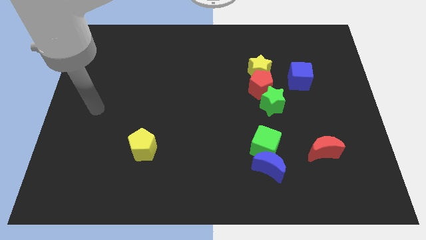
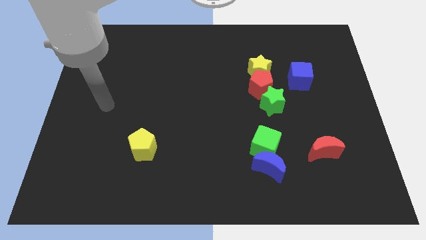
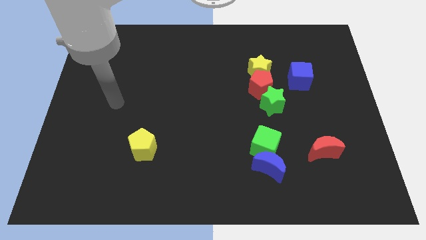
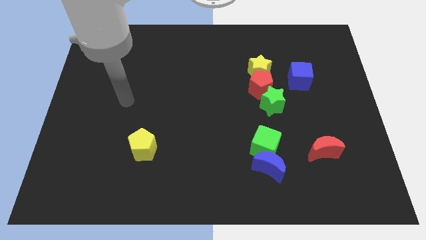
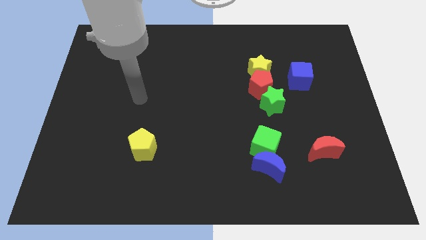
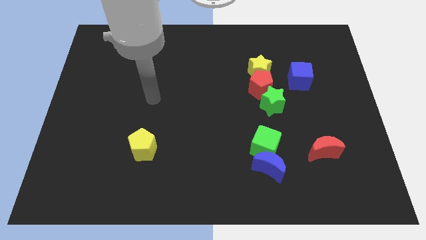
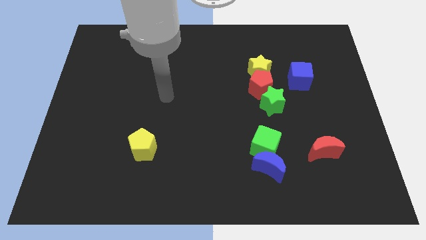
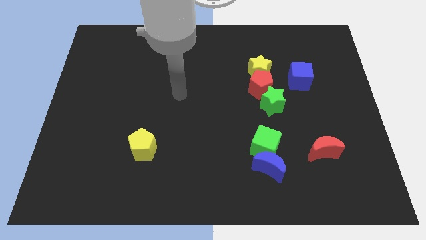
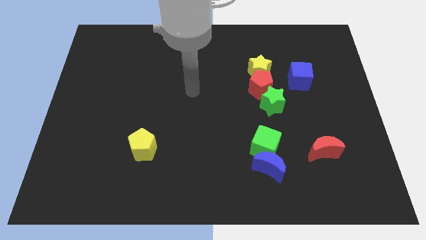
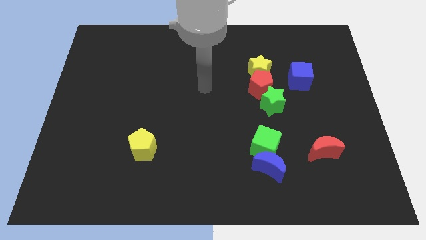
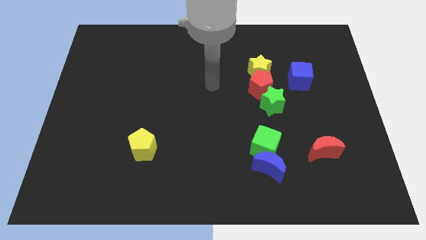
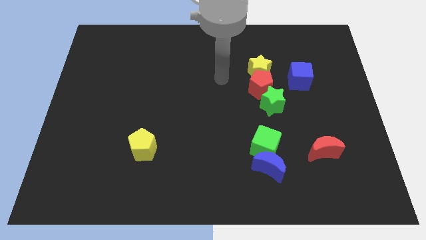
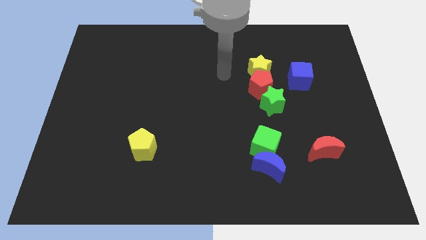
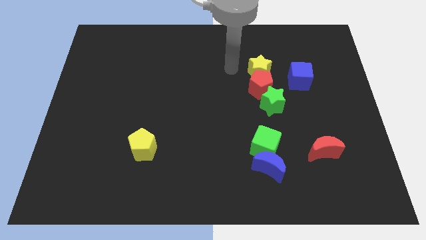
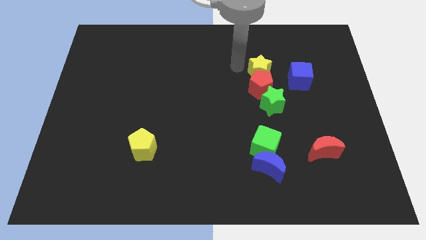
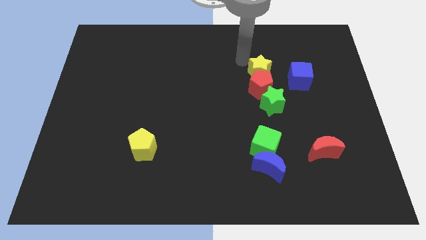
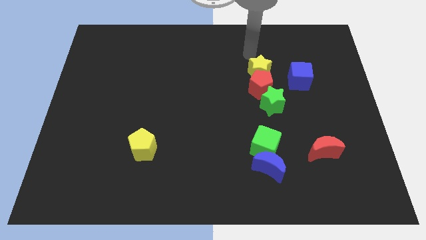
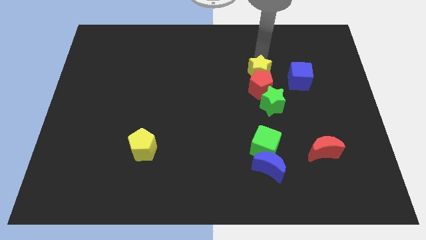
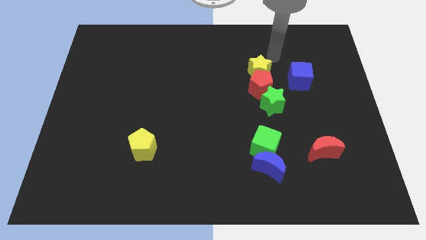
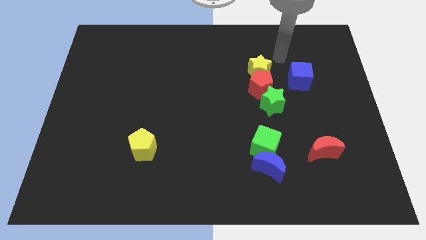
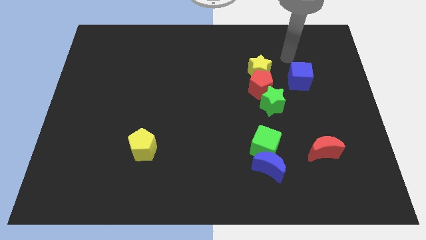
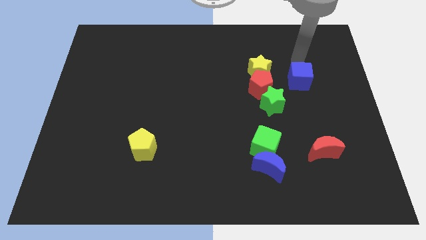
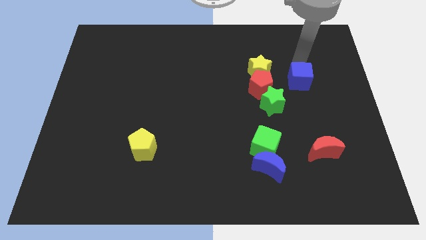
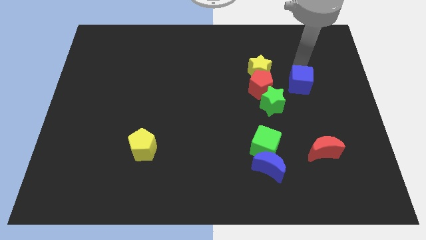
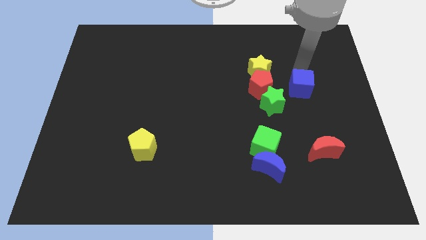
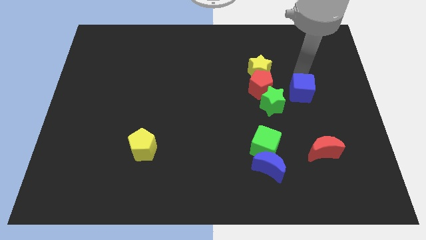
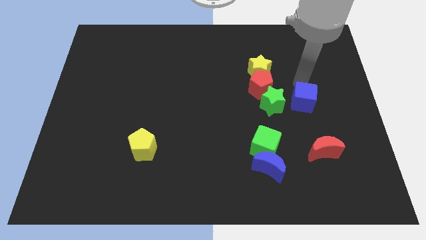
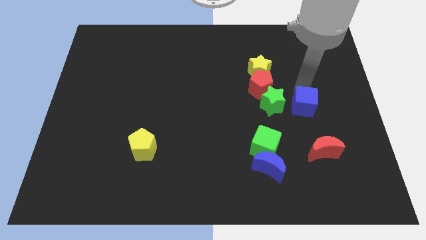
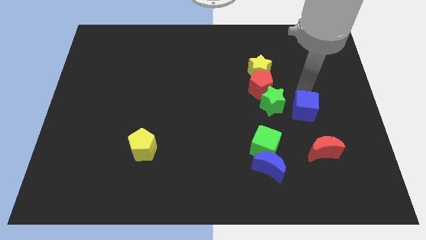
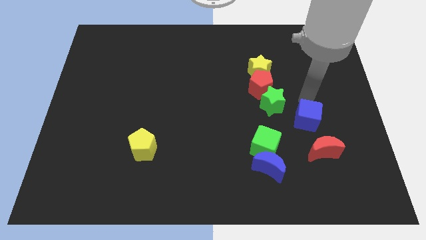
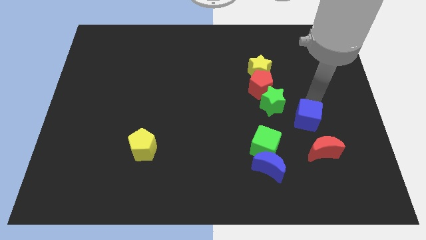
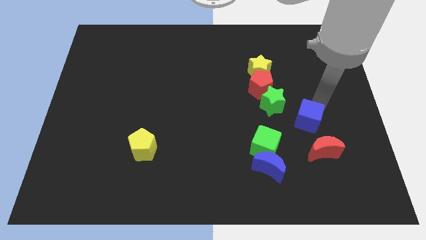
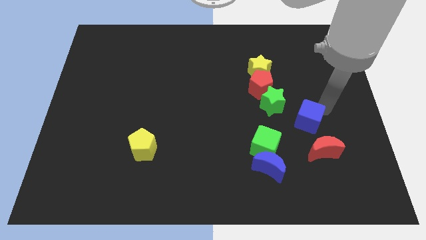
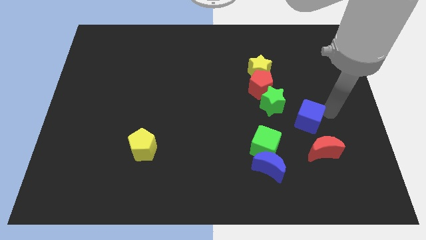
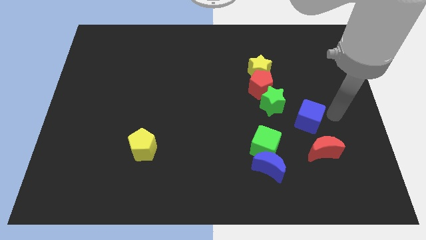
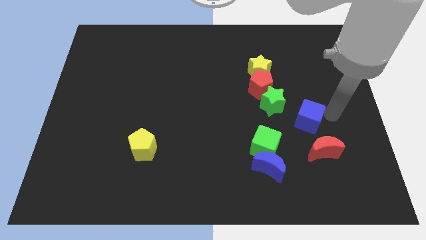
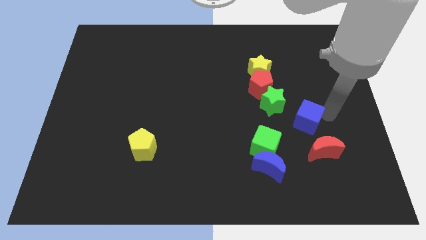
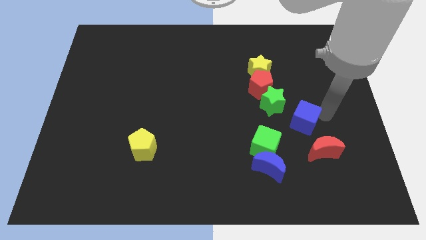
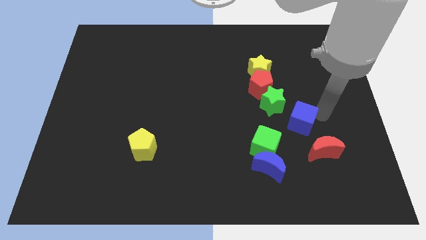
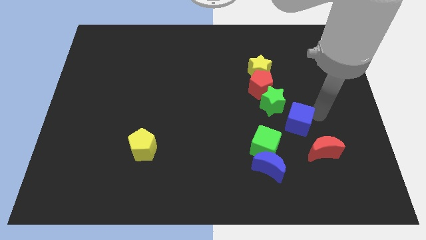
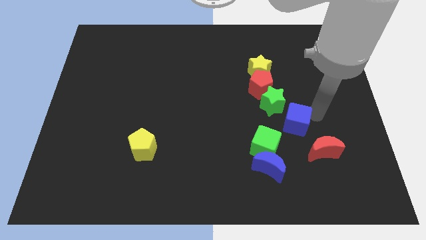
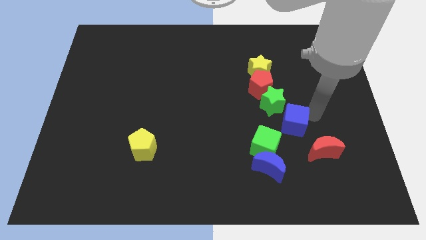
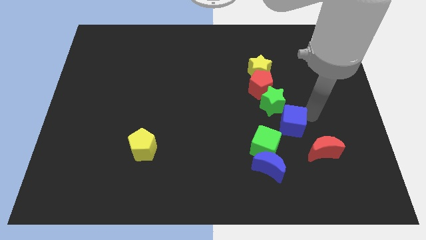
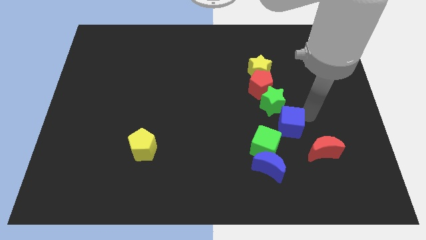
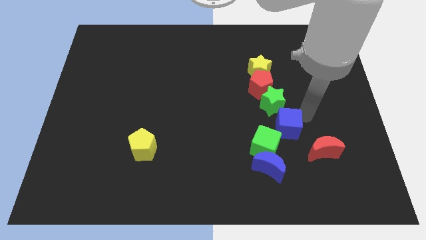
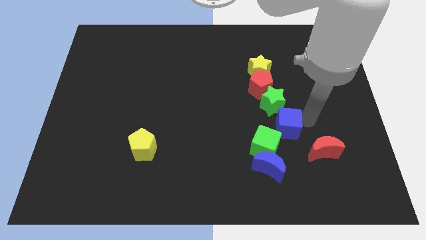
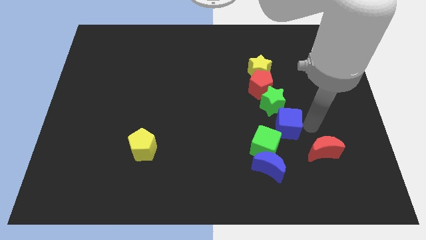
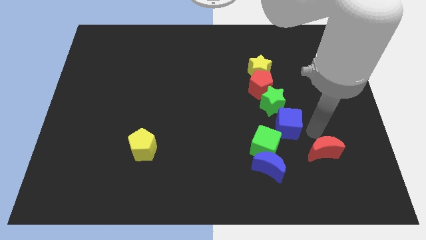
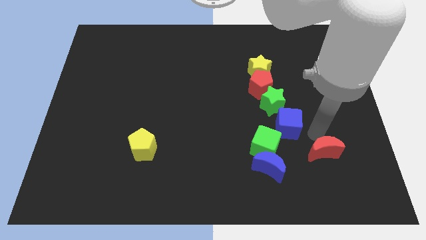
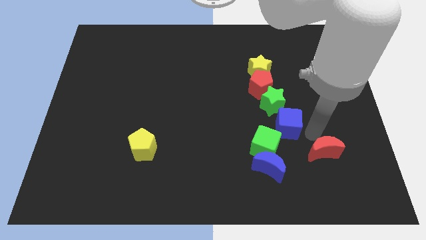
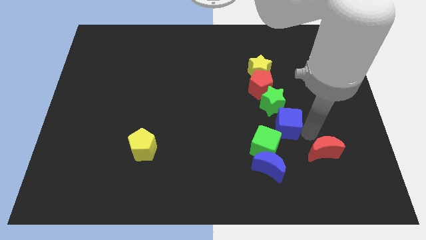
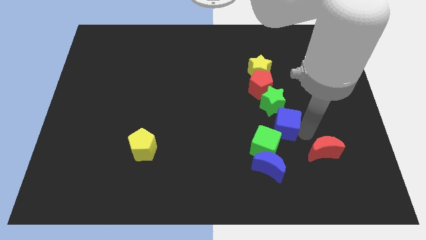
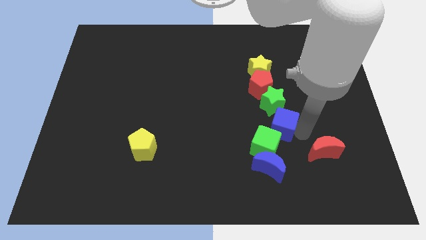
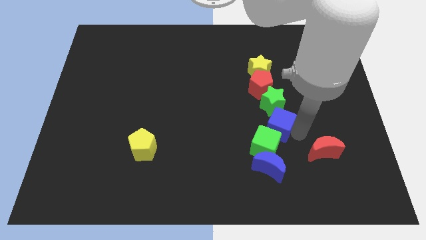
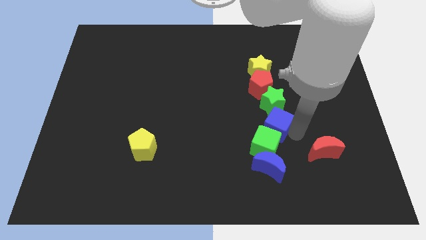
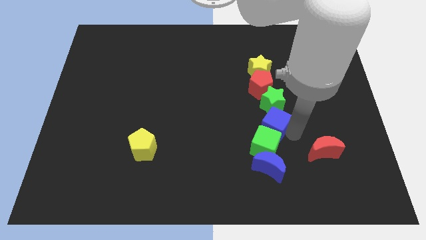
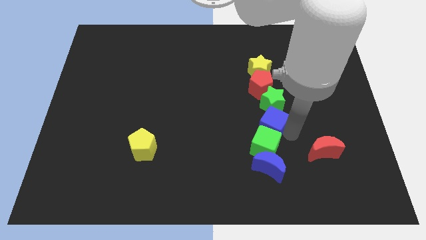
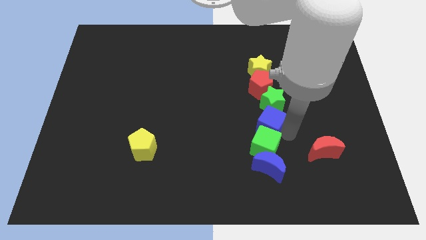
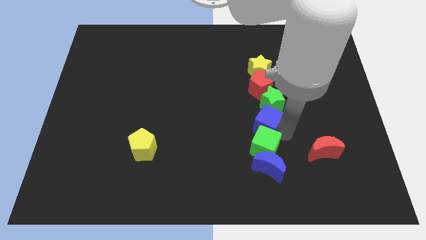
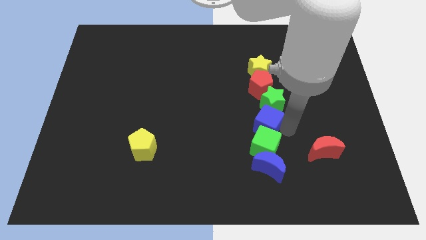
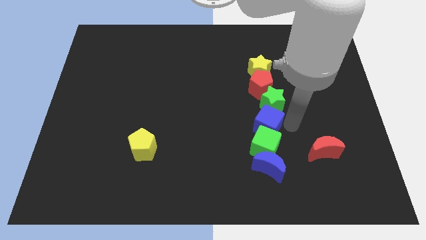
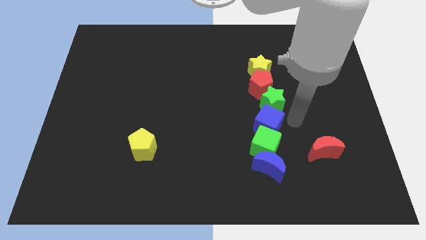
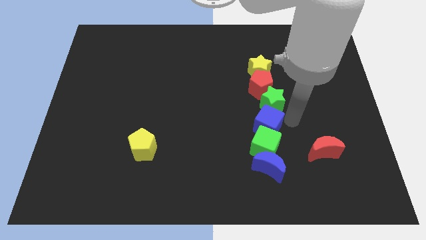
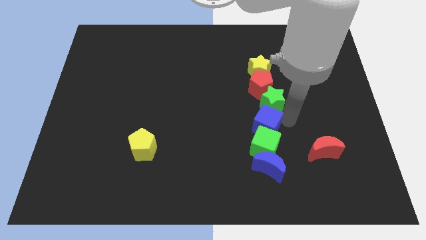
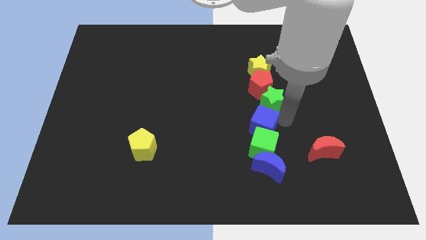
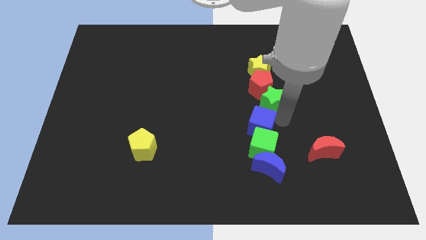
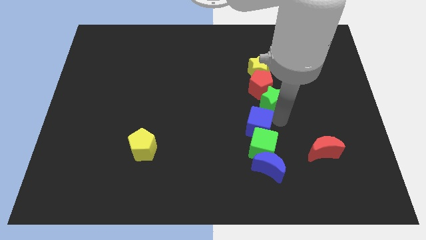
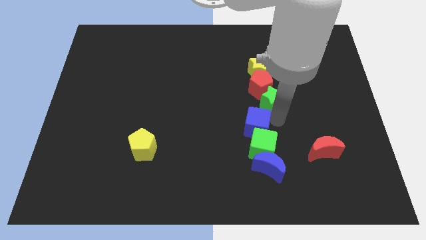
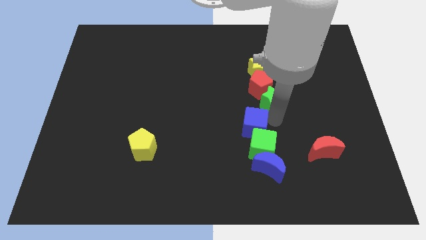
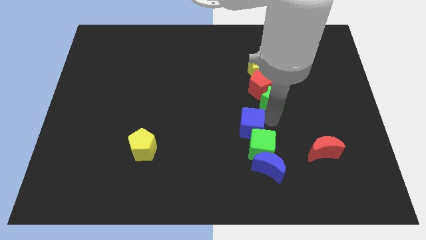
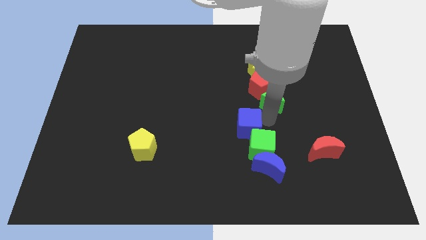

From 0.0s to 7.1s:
slide the blue cube diagonally down and left

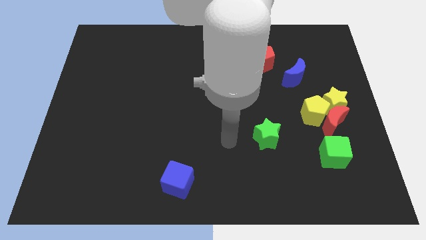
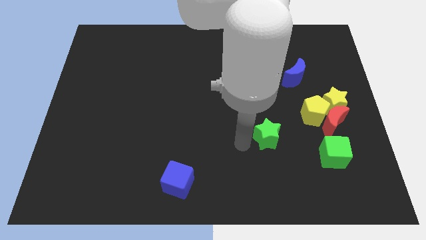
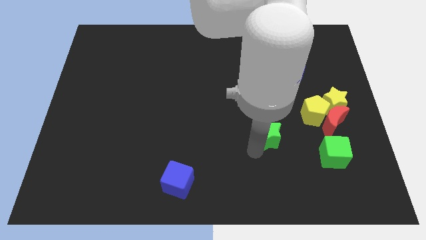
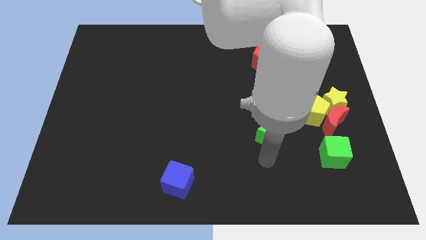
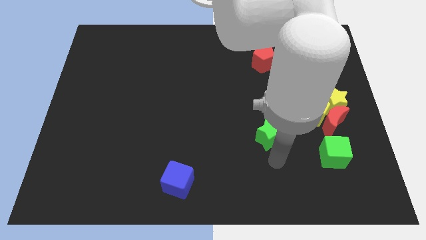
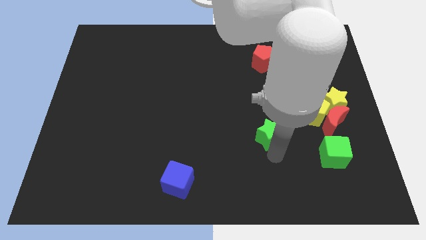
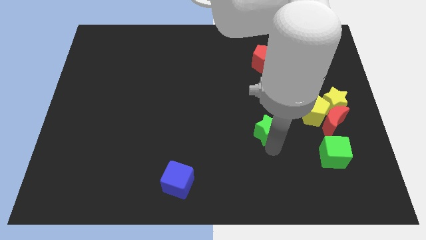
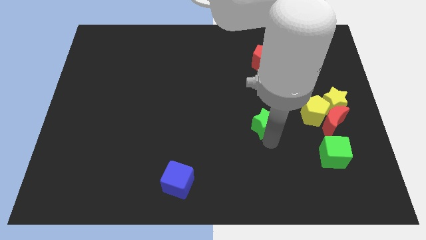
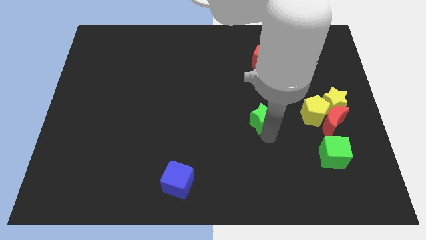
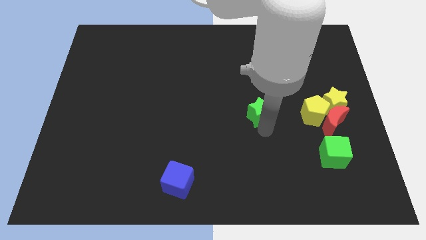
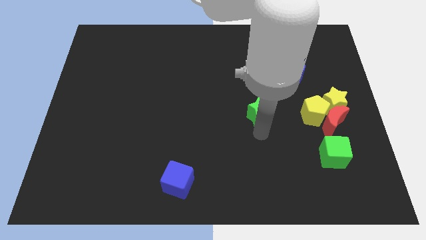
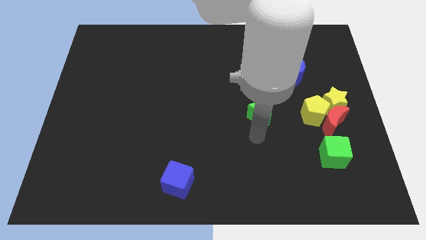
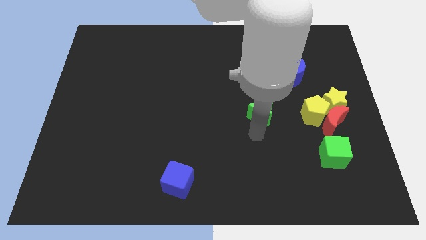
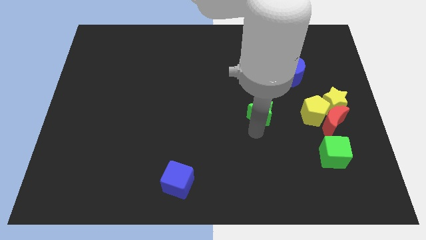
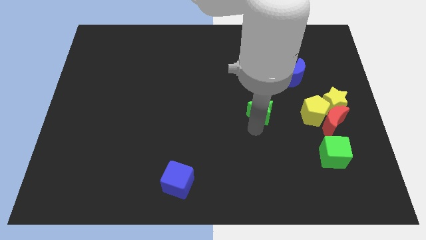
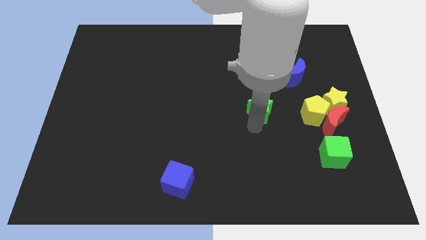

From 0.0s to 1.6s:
slightly slide the green star upwards
